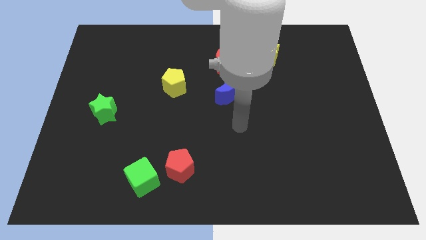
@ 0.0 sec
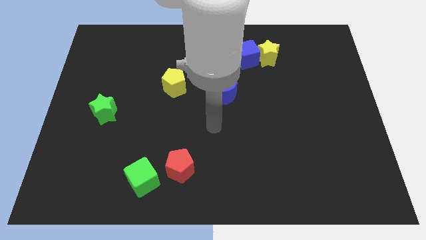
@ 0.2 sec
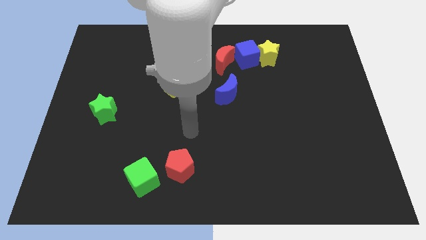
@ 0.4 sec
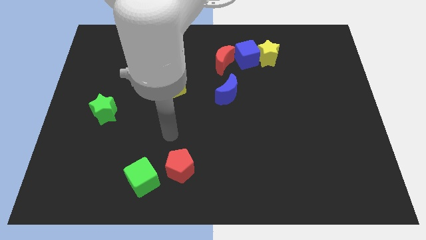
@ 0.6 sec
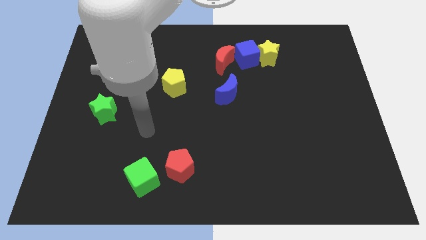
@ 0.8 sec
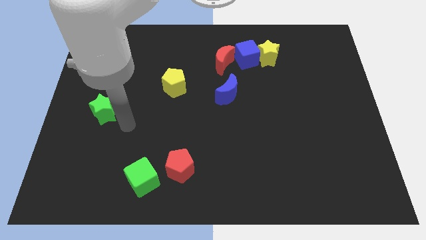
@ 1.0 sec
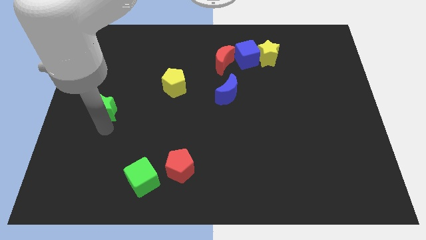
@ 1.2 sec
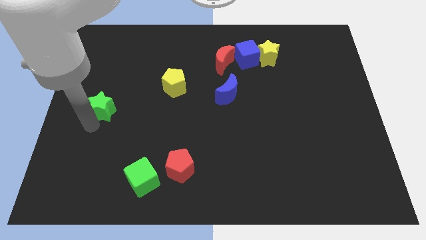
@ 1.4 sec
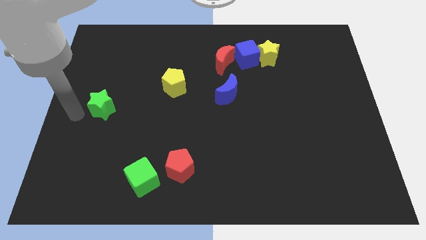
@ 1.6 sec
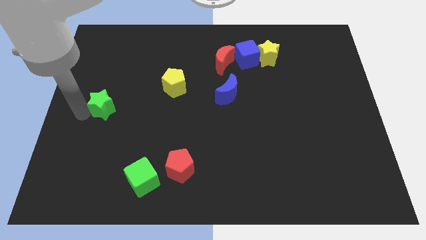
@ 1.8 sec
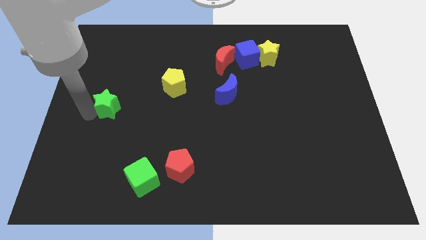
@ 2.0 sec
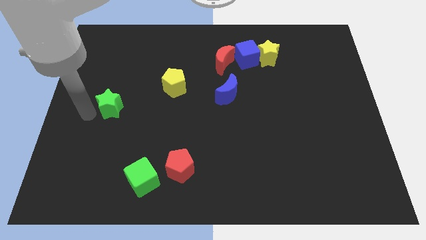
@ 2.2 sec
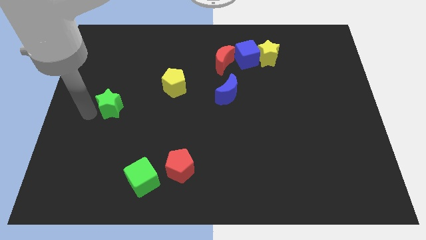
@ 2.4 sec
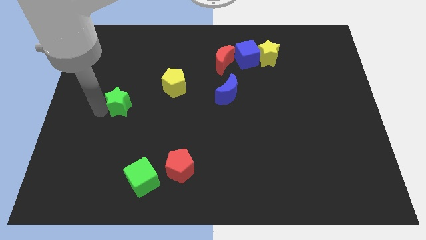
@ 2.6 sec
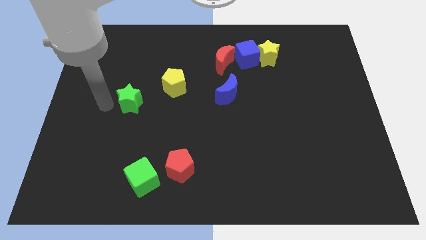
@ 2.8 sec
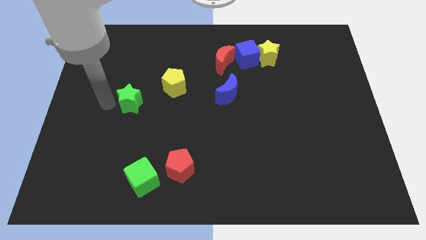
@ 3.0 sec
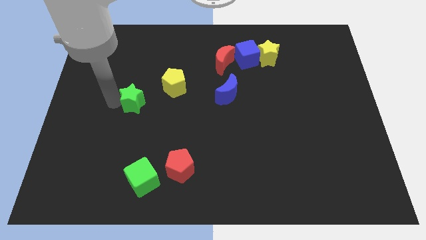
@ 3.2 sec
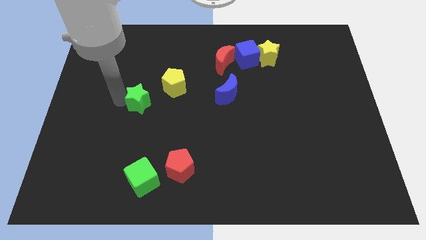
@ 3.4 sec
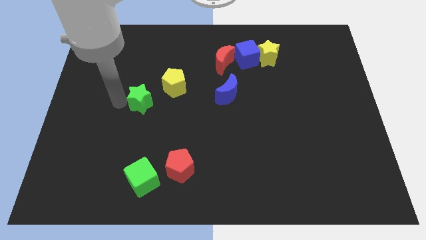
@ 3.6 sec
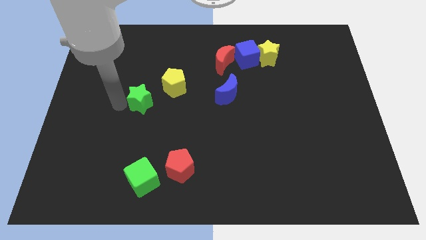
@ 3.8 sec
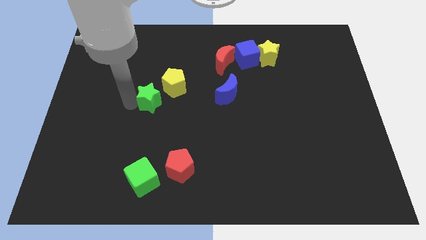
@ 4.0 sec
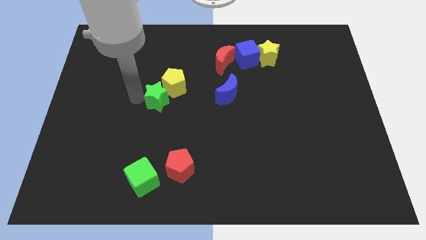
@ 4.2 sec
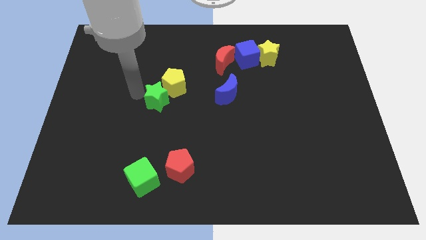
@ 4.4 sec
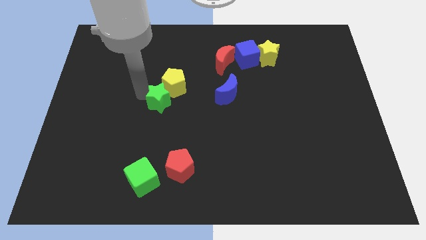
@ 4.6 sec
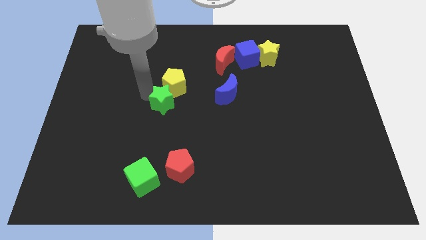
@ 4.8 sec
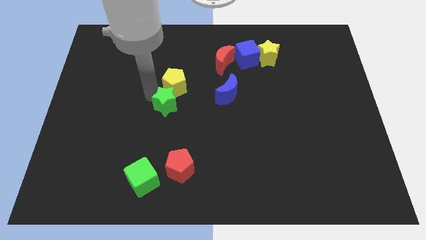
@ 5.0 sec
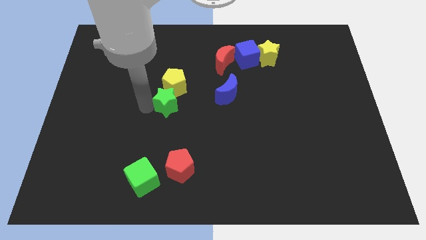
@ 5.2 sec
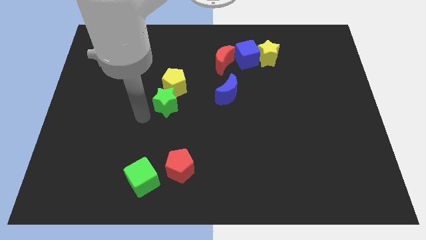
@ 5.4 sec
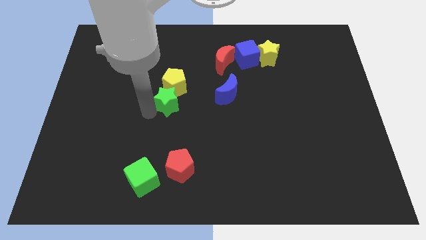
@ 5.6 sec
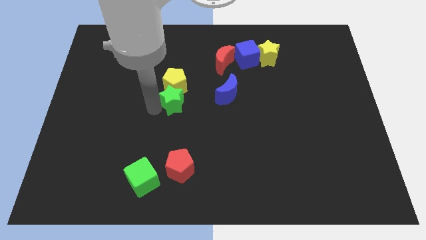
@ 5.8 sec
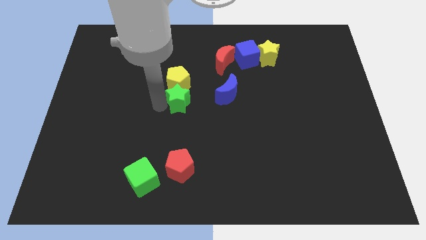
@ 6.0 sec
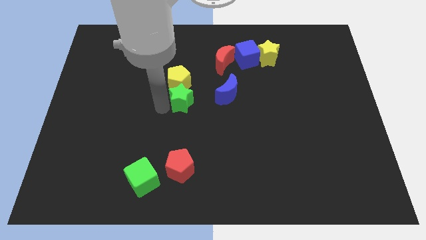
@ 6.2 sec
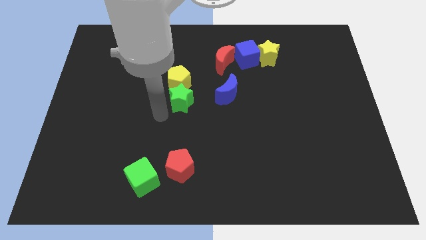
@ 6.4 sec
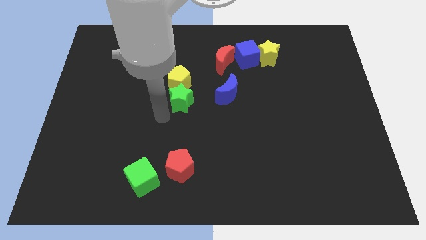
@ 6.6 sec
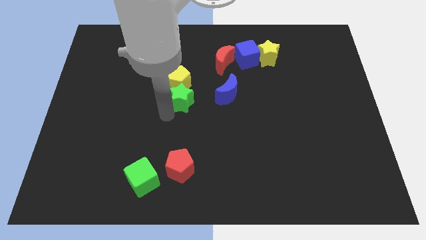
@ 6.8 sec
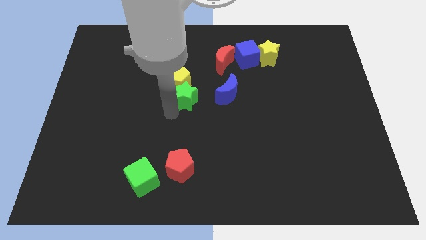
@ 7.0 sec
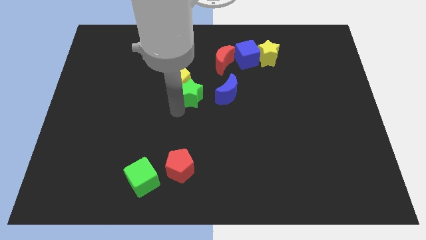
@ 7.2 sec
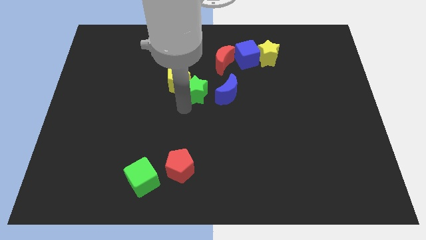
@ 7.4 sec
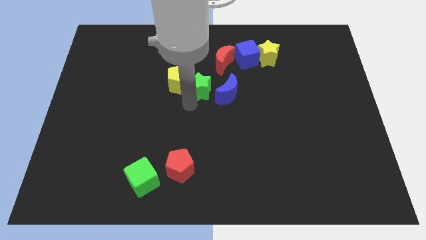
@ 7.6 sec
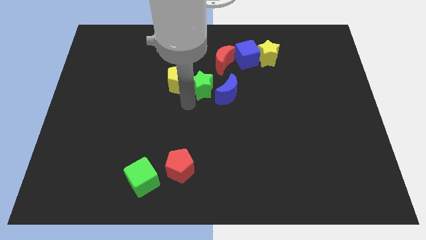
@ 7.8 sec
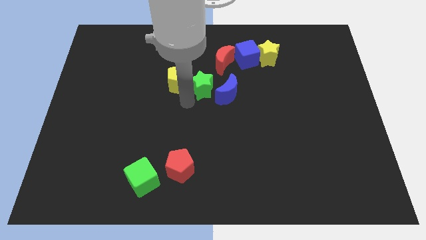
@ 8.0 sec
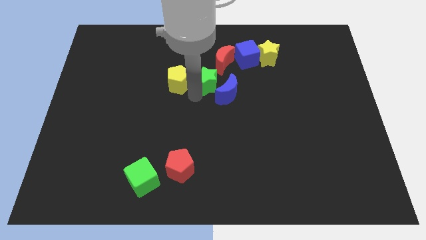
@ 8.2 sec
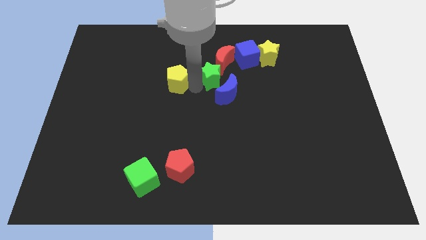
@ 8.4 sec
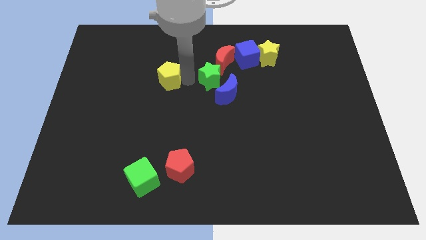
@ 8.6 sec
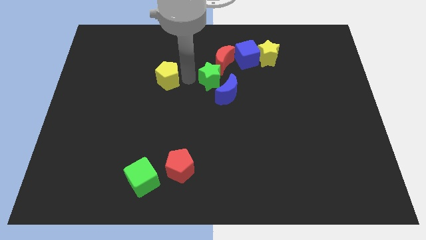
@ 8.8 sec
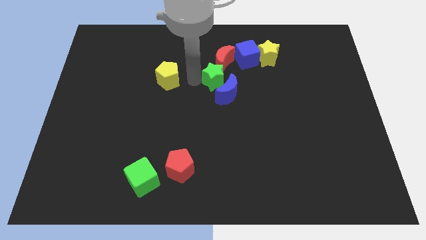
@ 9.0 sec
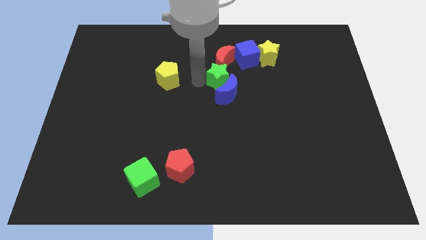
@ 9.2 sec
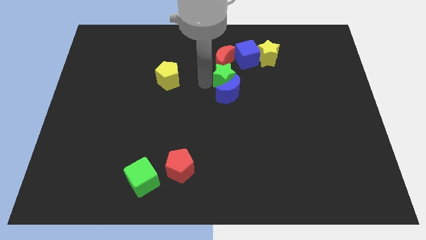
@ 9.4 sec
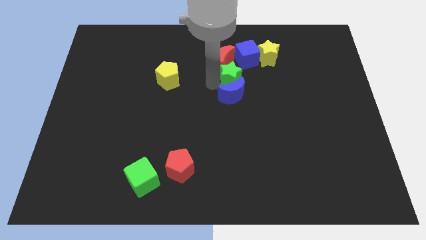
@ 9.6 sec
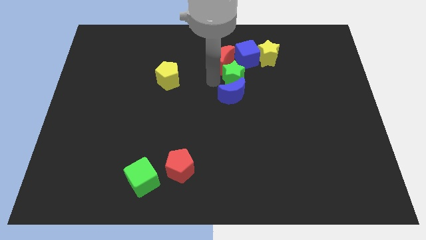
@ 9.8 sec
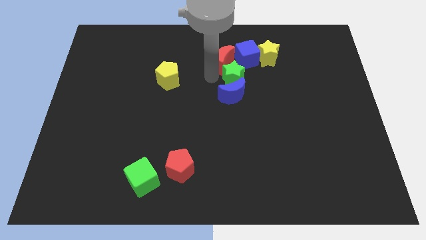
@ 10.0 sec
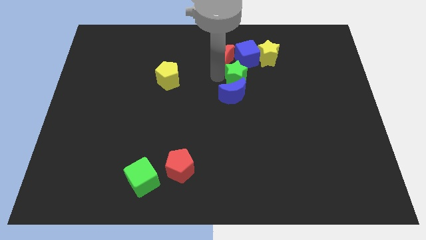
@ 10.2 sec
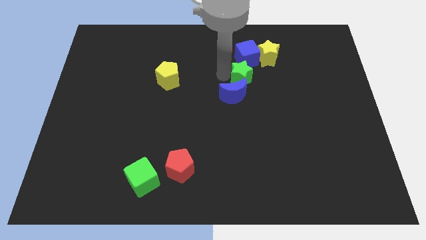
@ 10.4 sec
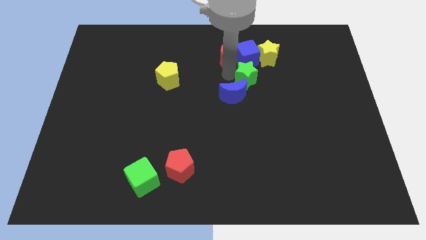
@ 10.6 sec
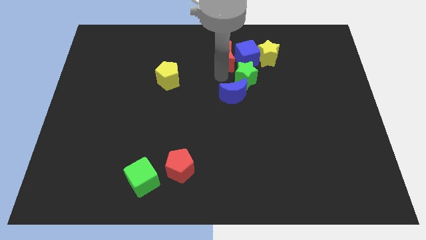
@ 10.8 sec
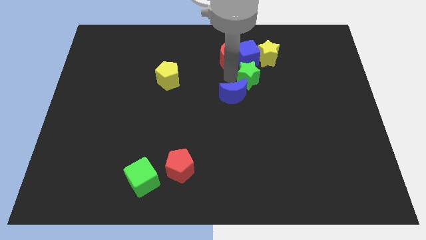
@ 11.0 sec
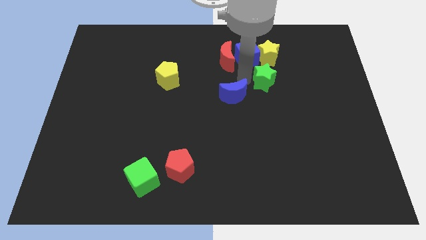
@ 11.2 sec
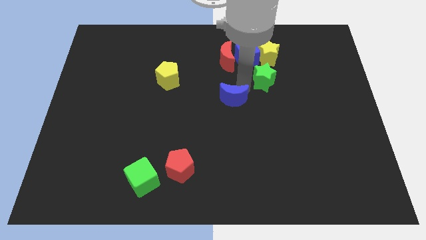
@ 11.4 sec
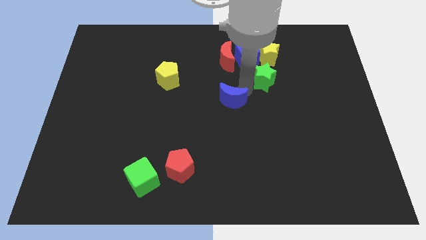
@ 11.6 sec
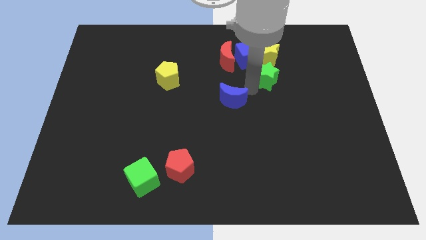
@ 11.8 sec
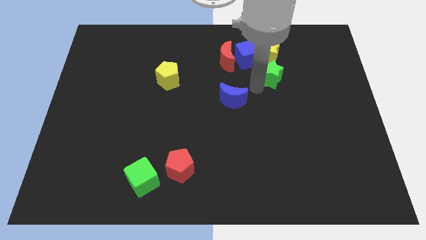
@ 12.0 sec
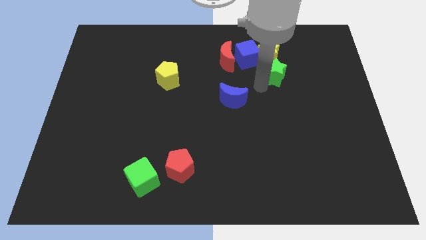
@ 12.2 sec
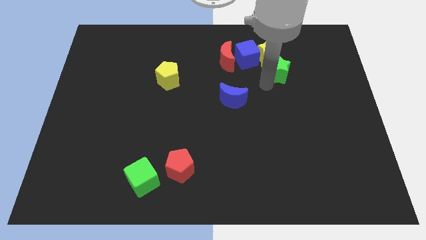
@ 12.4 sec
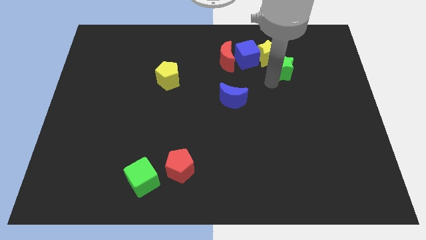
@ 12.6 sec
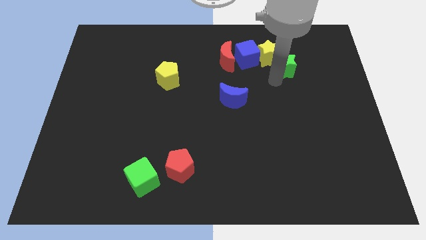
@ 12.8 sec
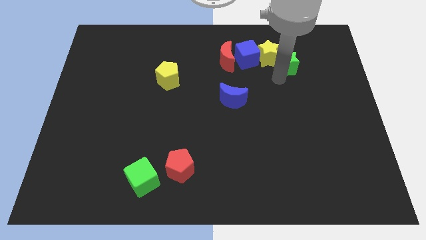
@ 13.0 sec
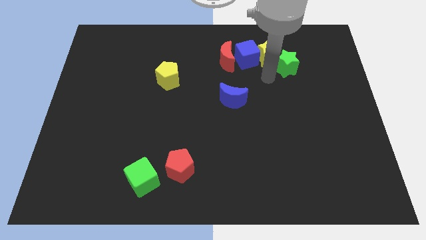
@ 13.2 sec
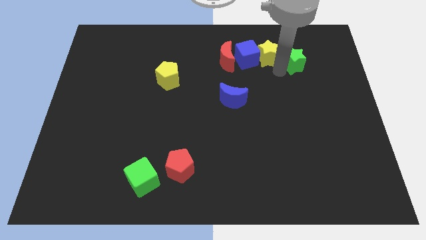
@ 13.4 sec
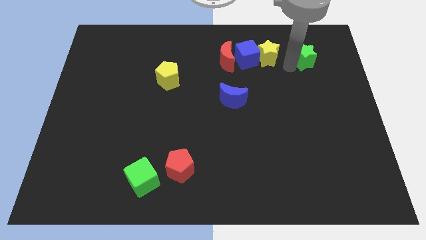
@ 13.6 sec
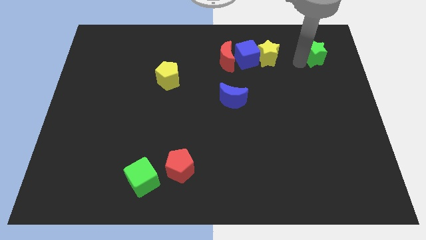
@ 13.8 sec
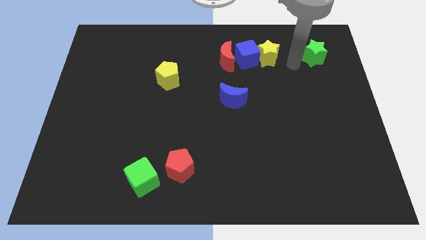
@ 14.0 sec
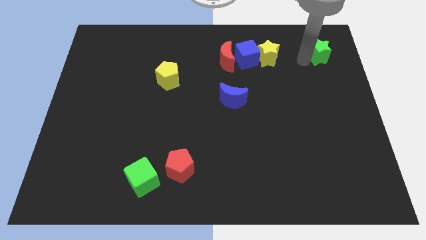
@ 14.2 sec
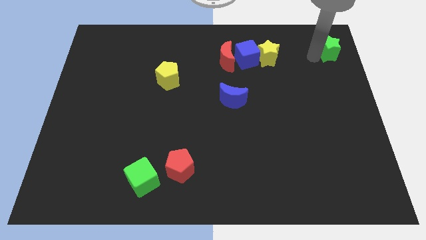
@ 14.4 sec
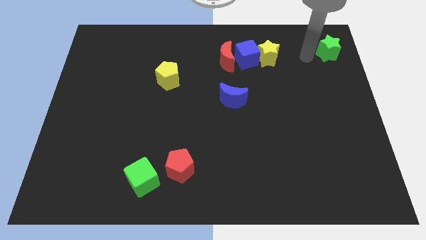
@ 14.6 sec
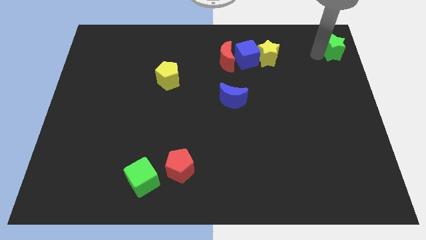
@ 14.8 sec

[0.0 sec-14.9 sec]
slide the green star to the top right corner
